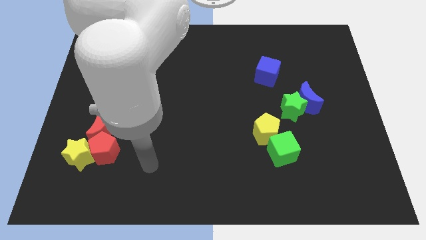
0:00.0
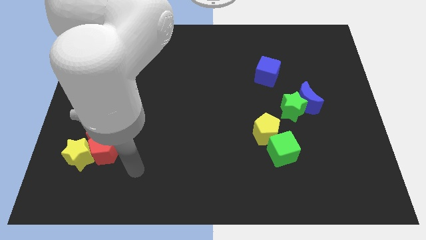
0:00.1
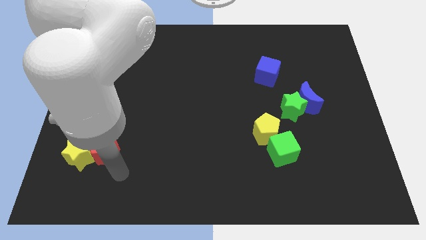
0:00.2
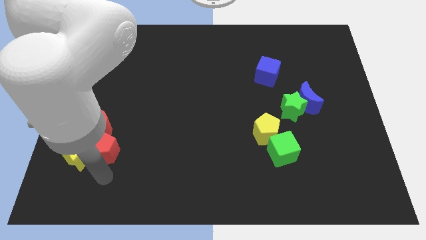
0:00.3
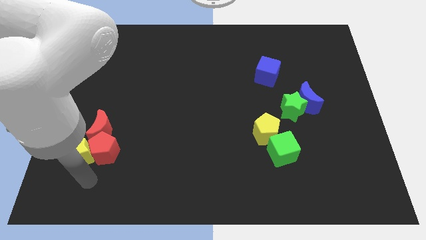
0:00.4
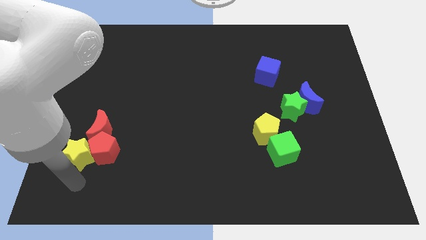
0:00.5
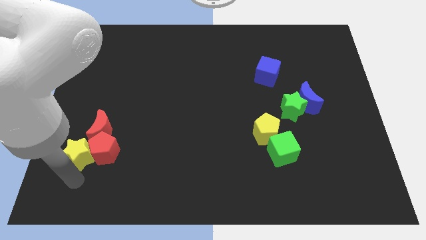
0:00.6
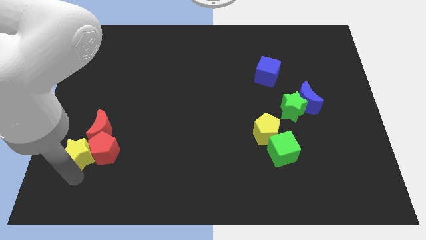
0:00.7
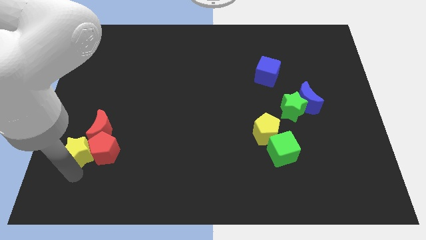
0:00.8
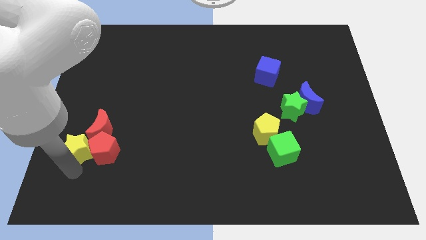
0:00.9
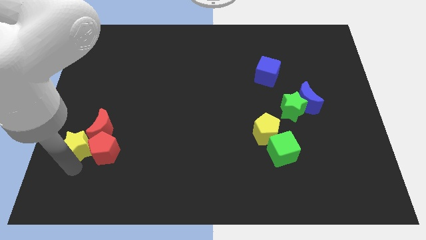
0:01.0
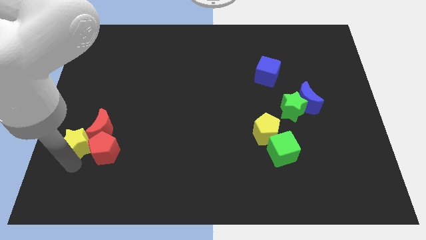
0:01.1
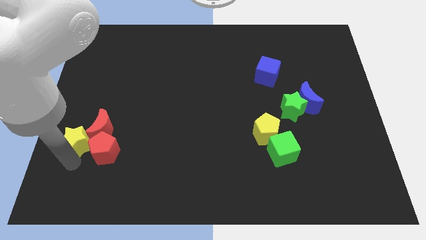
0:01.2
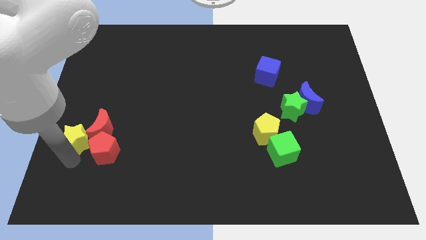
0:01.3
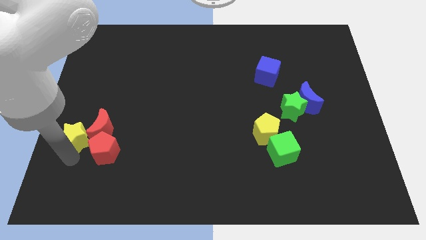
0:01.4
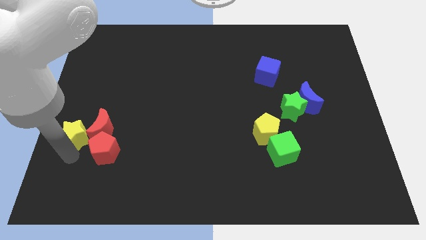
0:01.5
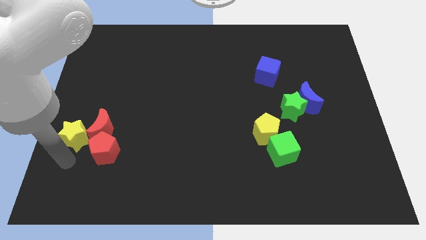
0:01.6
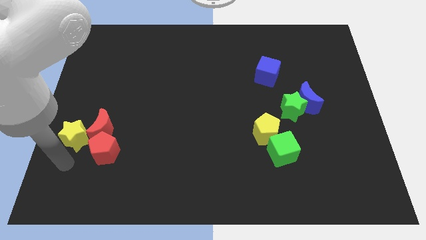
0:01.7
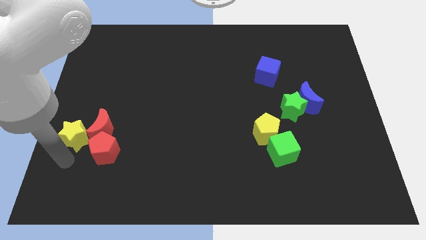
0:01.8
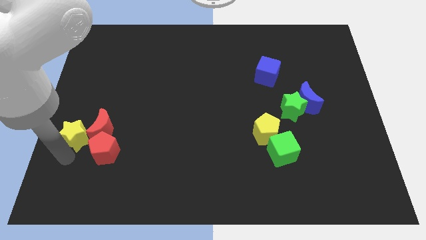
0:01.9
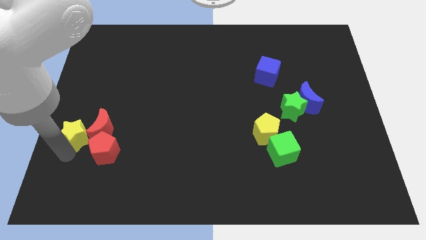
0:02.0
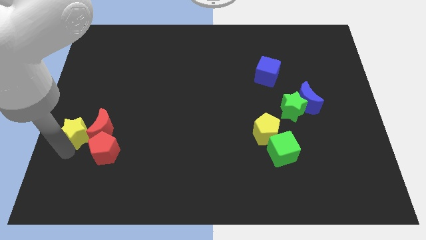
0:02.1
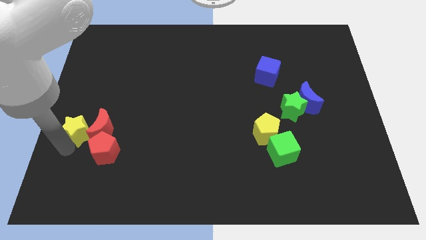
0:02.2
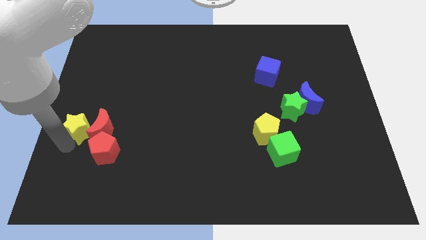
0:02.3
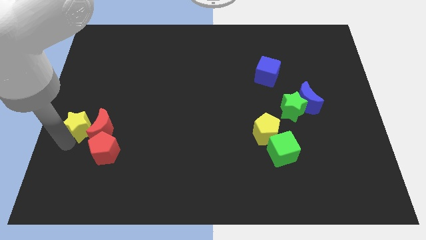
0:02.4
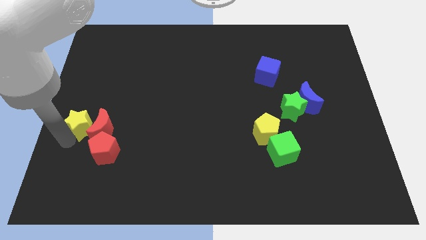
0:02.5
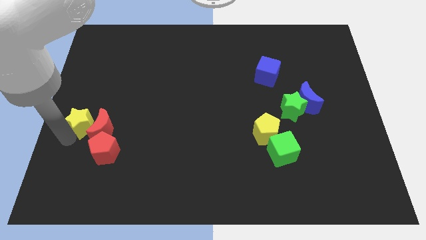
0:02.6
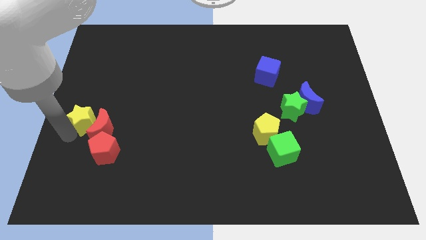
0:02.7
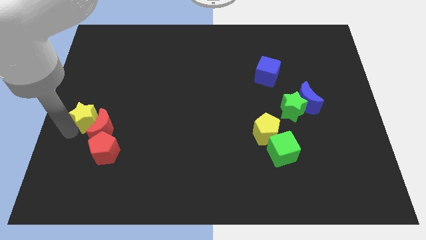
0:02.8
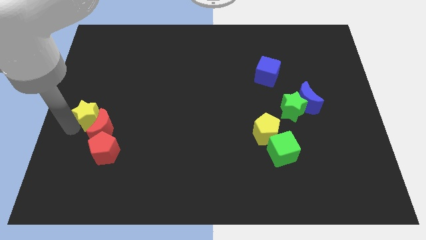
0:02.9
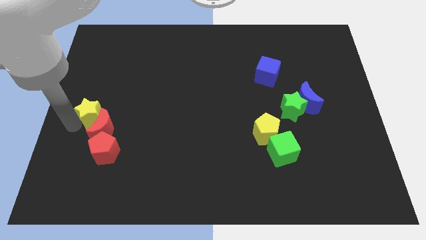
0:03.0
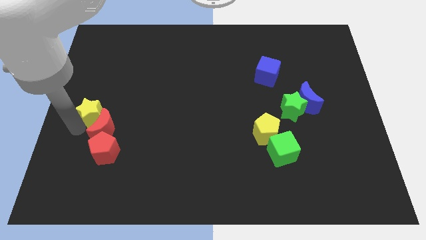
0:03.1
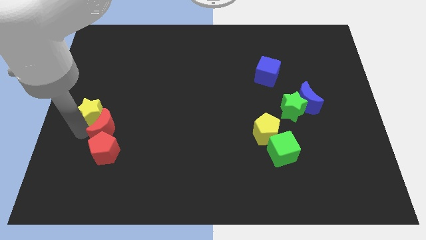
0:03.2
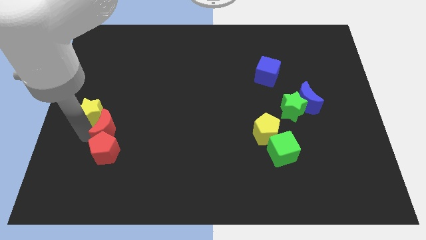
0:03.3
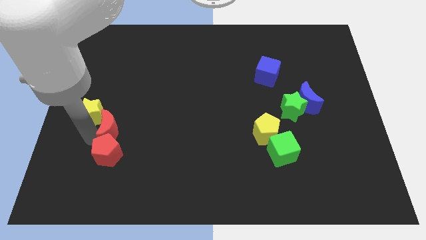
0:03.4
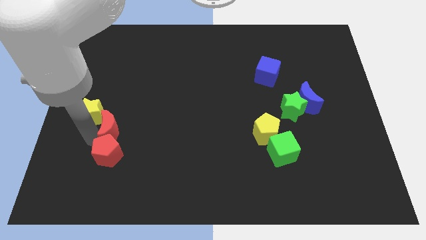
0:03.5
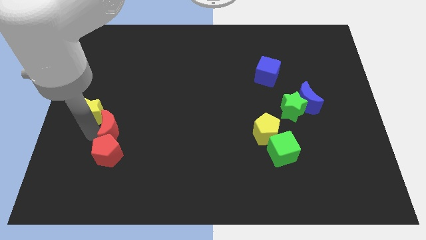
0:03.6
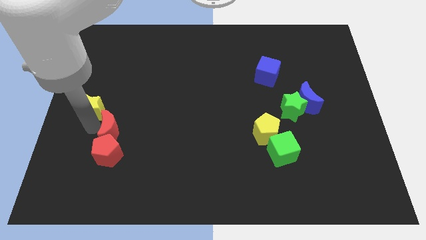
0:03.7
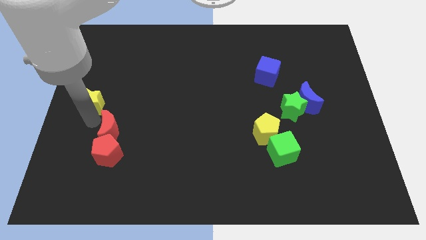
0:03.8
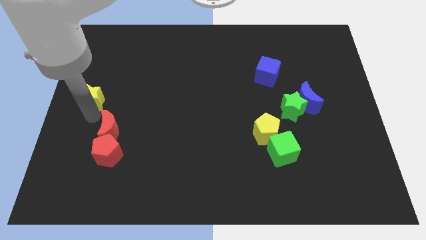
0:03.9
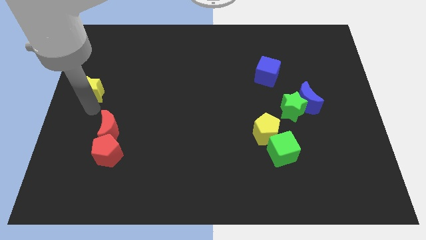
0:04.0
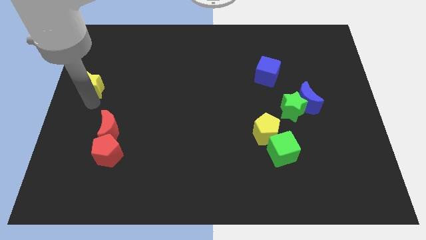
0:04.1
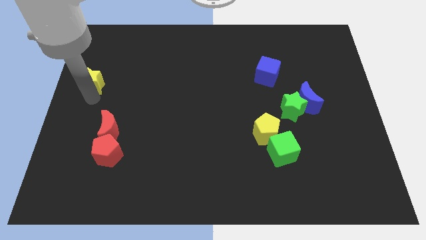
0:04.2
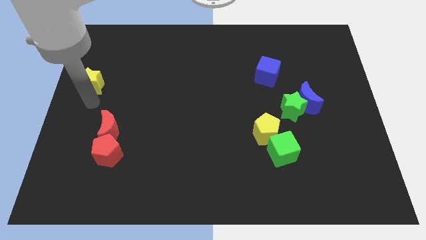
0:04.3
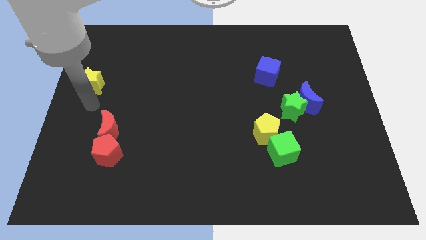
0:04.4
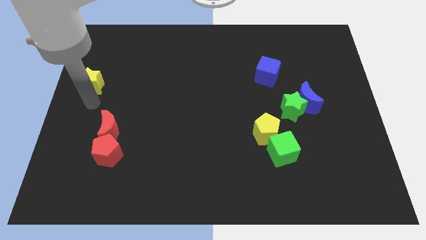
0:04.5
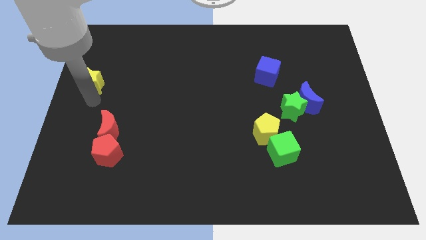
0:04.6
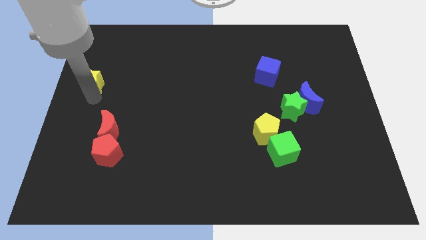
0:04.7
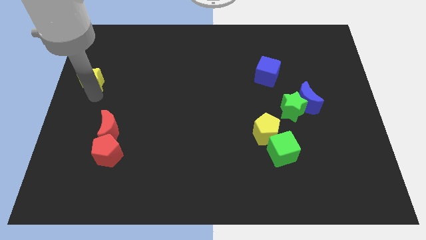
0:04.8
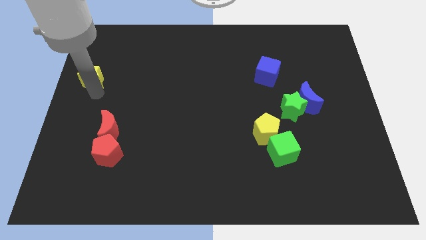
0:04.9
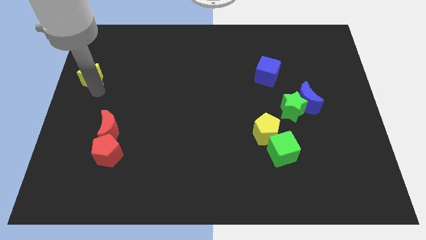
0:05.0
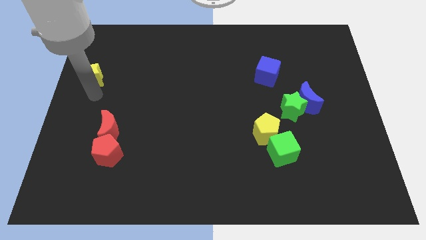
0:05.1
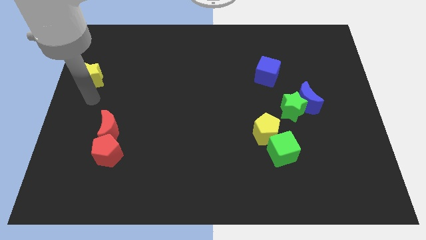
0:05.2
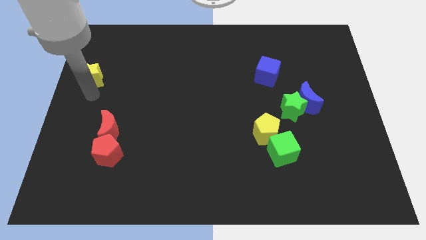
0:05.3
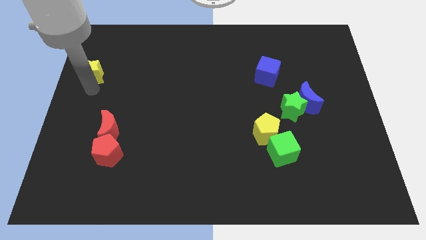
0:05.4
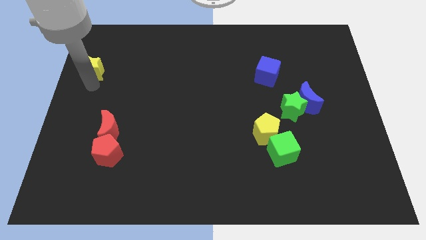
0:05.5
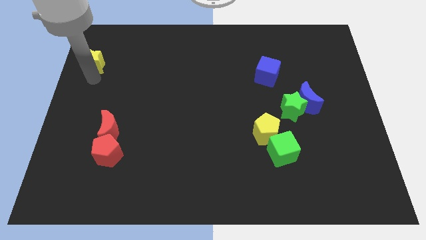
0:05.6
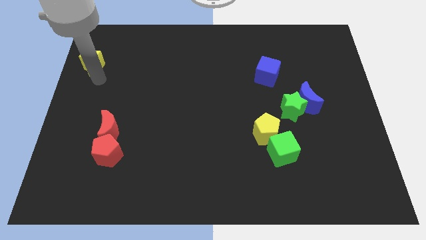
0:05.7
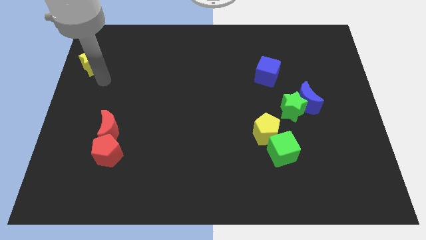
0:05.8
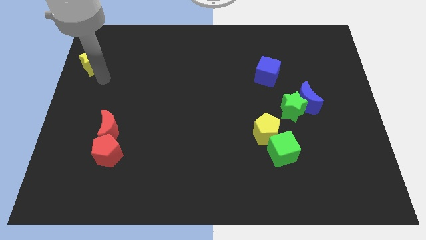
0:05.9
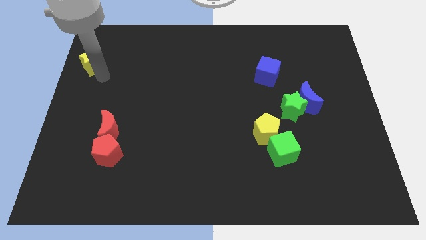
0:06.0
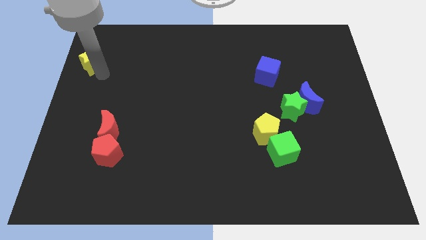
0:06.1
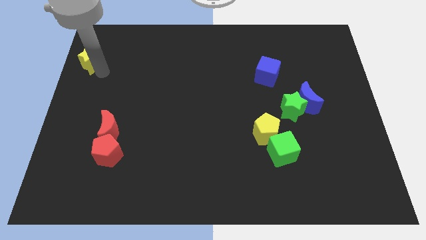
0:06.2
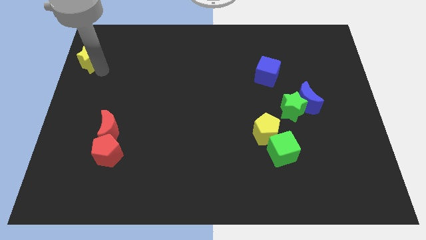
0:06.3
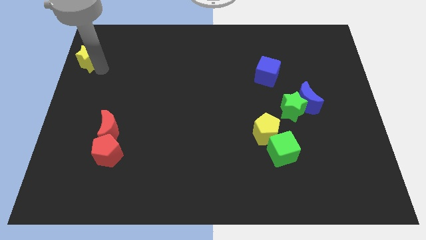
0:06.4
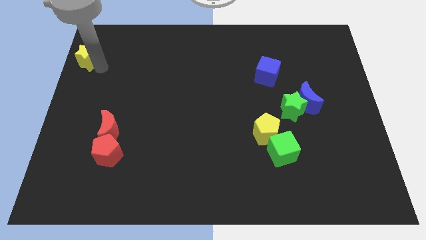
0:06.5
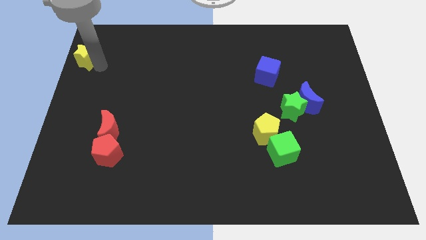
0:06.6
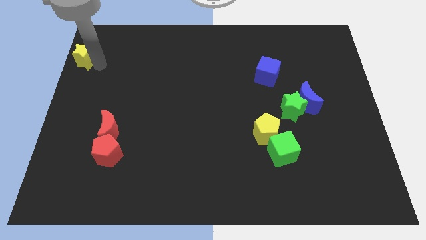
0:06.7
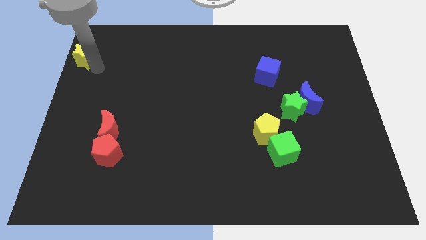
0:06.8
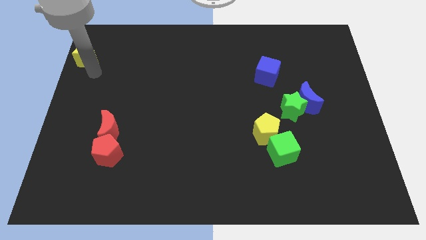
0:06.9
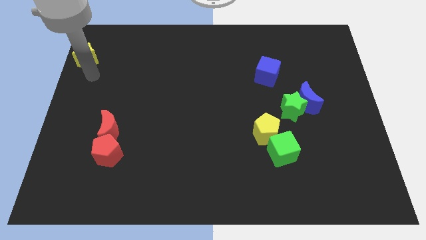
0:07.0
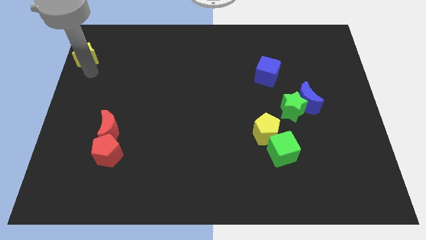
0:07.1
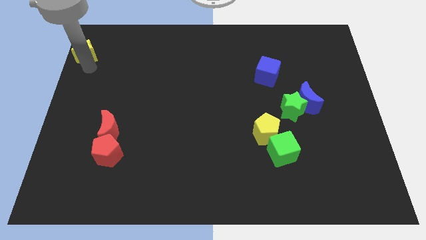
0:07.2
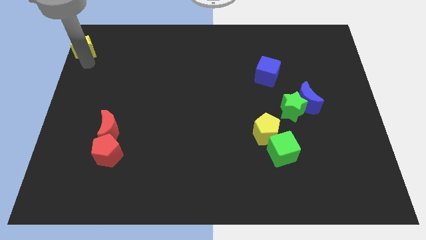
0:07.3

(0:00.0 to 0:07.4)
push the yellow star to the top left of the board
